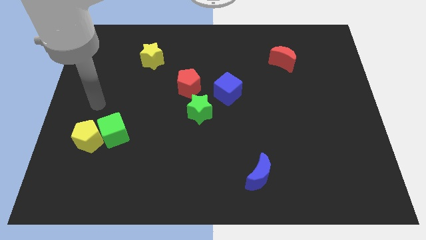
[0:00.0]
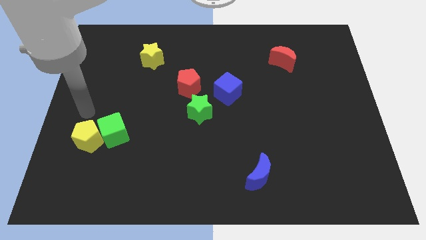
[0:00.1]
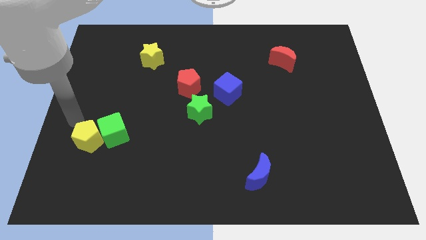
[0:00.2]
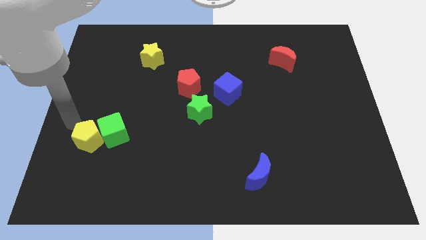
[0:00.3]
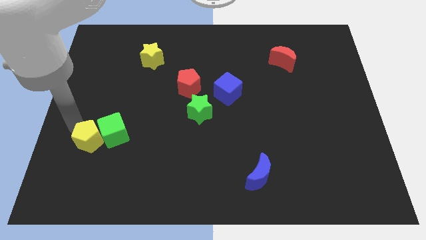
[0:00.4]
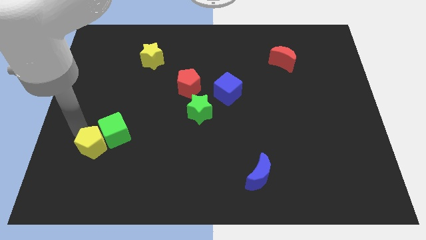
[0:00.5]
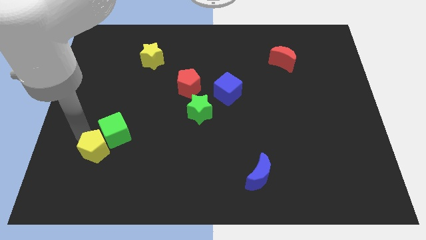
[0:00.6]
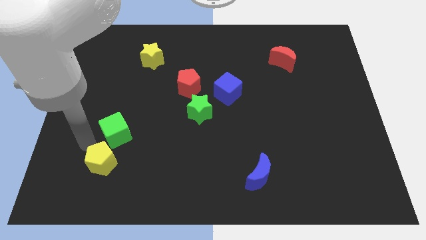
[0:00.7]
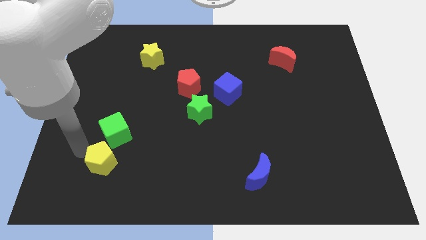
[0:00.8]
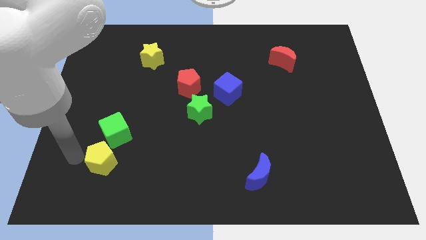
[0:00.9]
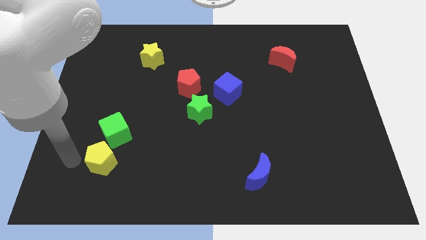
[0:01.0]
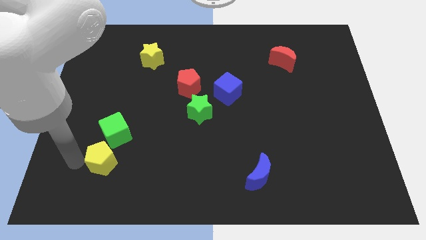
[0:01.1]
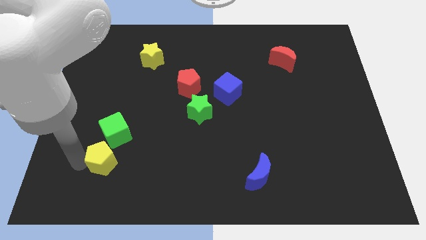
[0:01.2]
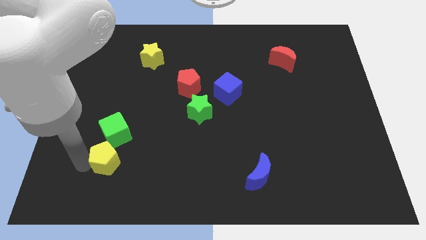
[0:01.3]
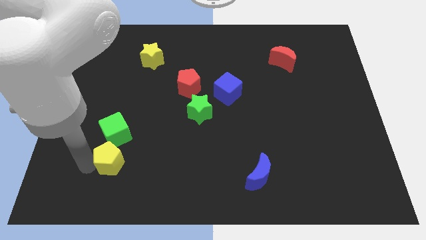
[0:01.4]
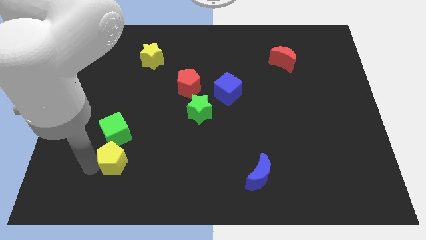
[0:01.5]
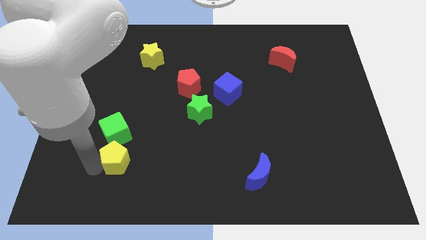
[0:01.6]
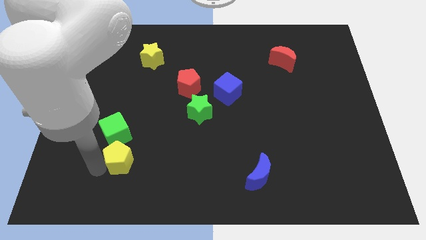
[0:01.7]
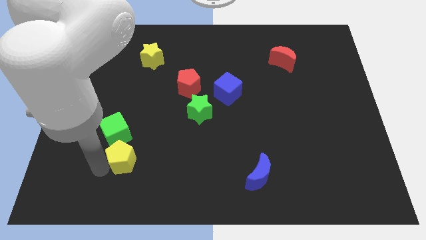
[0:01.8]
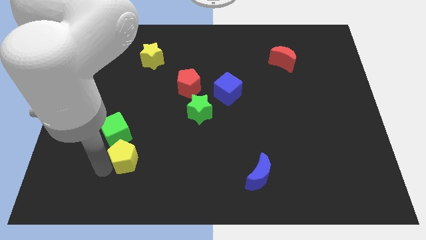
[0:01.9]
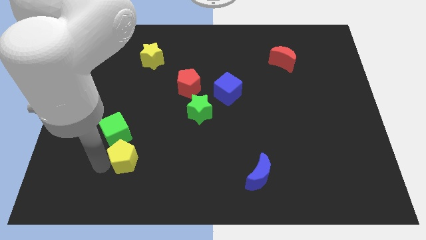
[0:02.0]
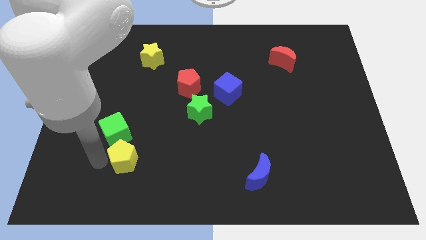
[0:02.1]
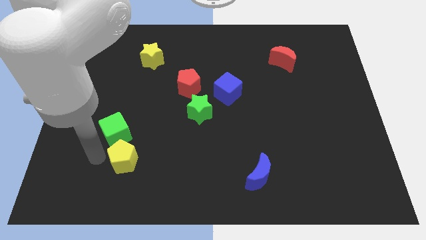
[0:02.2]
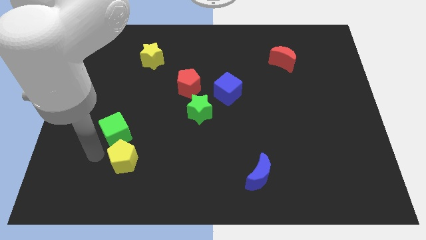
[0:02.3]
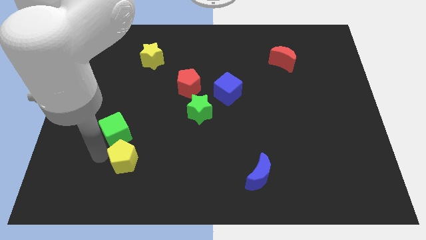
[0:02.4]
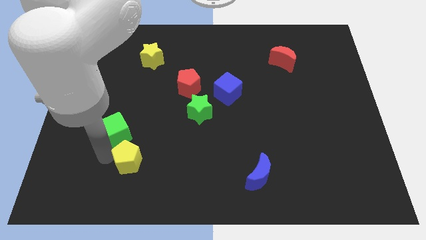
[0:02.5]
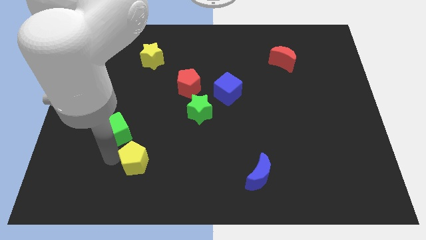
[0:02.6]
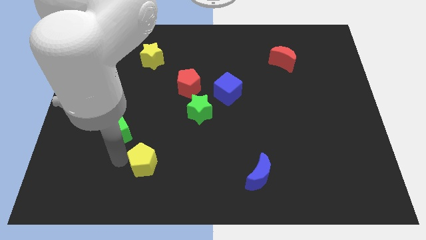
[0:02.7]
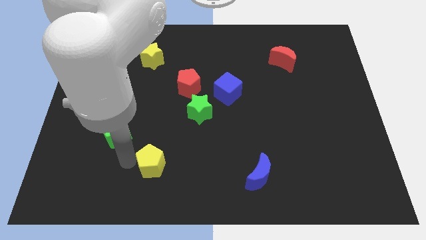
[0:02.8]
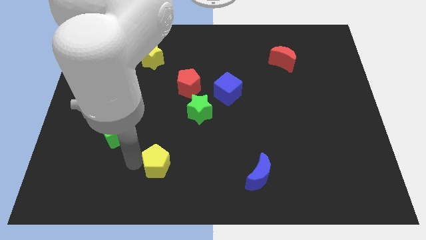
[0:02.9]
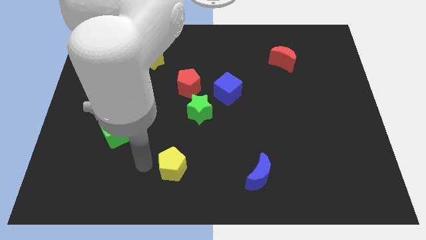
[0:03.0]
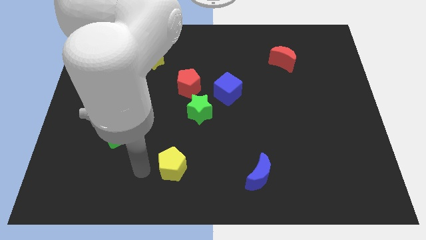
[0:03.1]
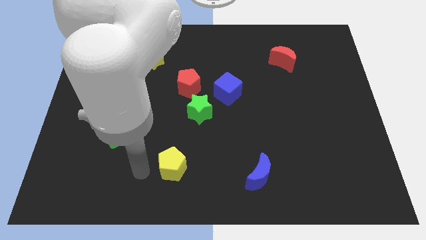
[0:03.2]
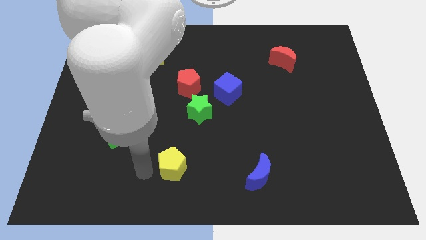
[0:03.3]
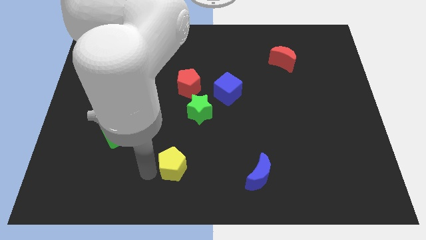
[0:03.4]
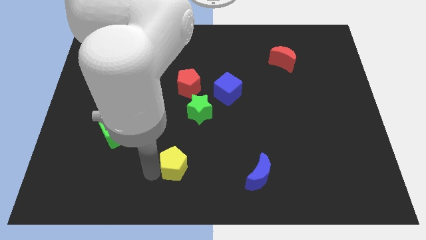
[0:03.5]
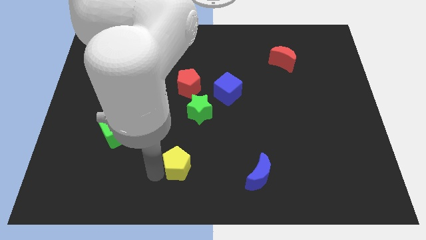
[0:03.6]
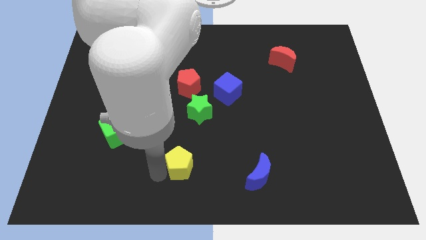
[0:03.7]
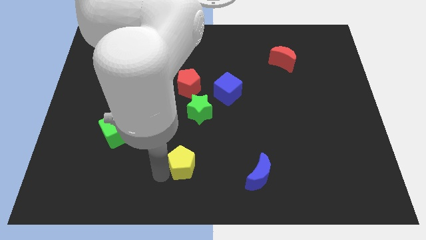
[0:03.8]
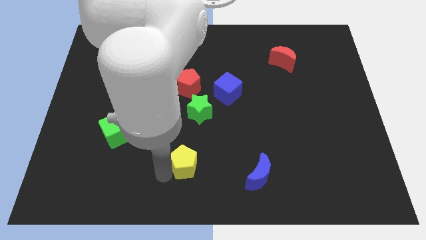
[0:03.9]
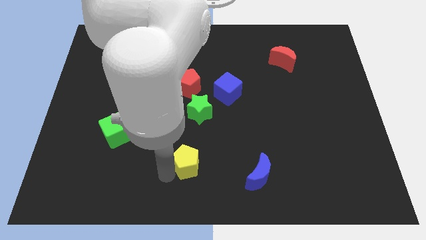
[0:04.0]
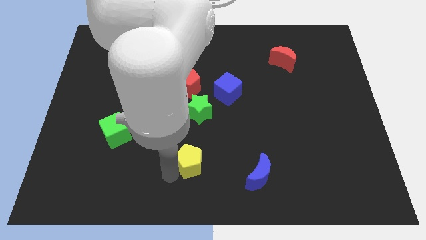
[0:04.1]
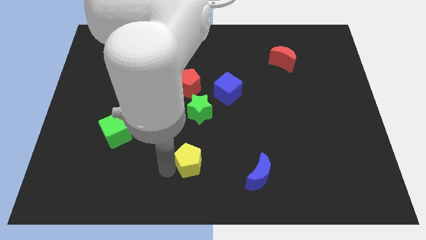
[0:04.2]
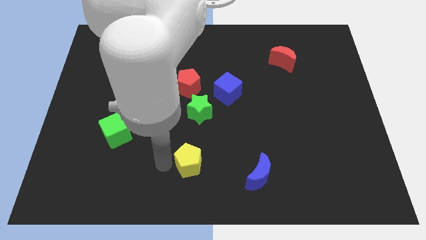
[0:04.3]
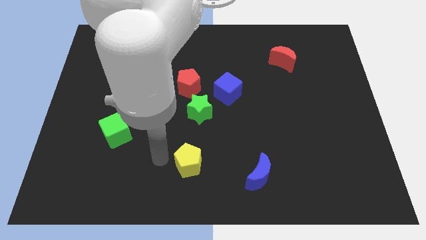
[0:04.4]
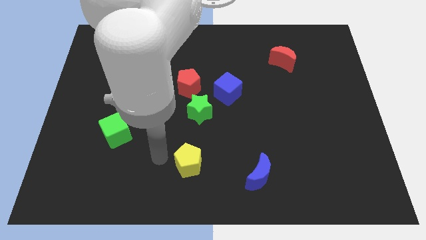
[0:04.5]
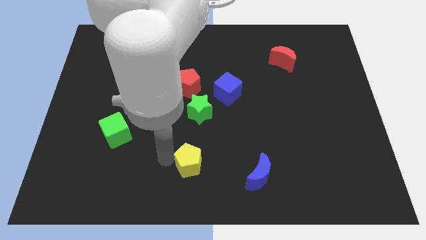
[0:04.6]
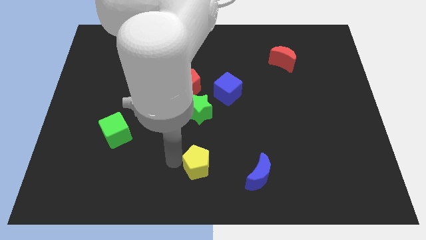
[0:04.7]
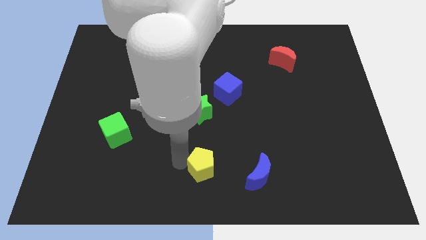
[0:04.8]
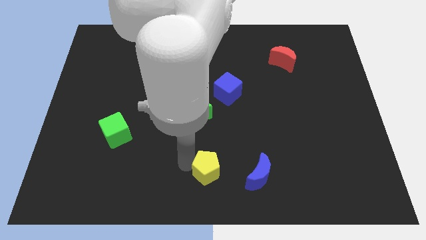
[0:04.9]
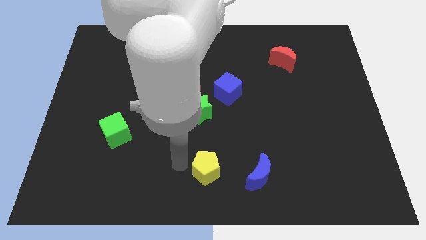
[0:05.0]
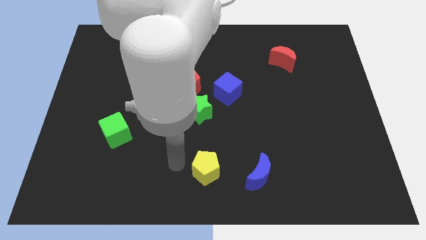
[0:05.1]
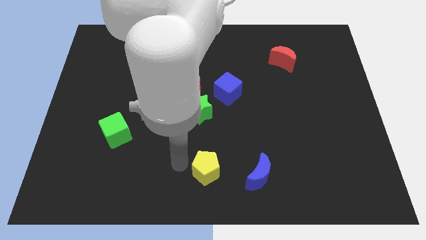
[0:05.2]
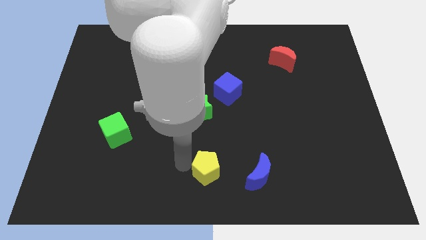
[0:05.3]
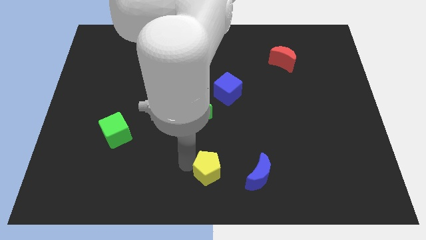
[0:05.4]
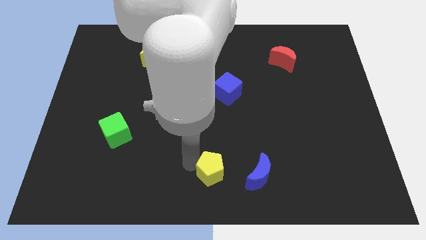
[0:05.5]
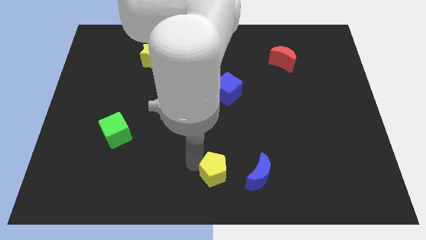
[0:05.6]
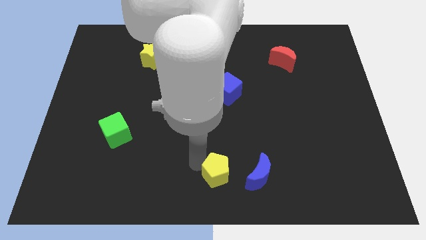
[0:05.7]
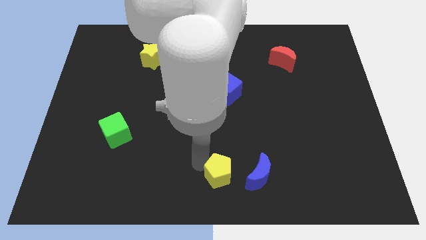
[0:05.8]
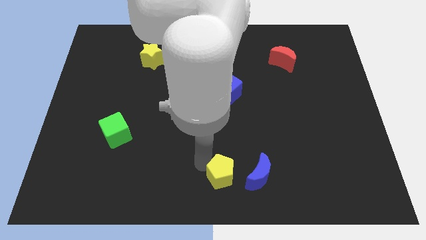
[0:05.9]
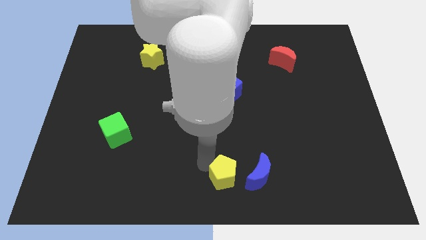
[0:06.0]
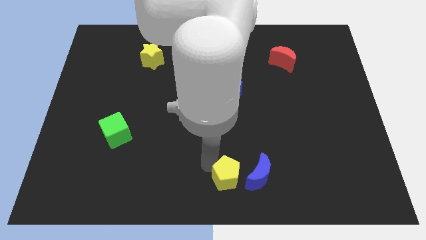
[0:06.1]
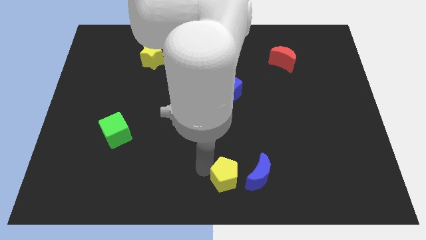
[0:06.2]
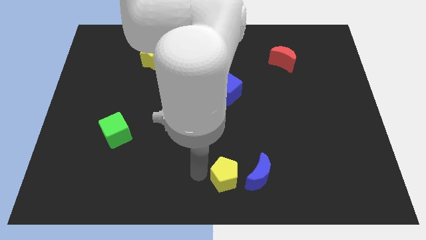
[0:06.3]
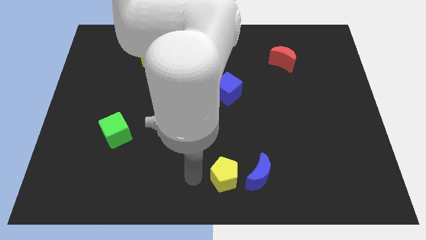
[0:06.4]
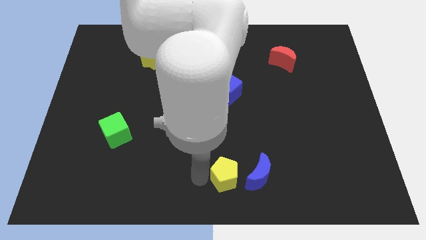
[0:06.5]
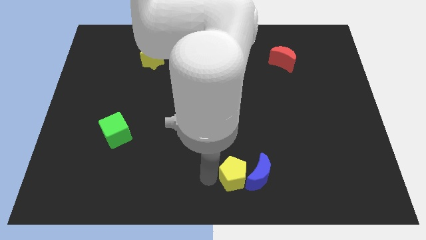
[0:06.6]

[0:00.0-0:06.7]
move the yellow pentagon to the blue moon

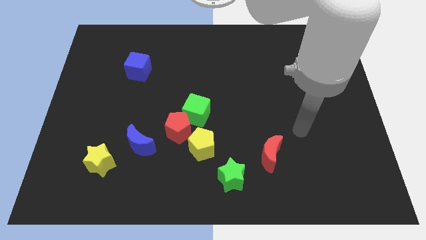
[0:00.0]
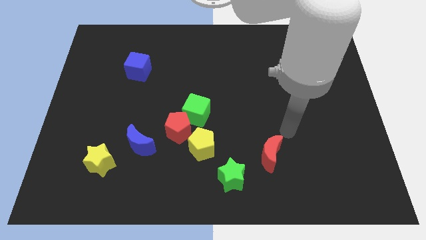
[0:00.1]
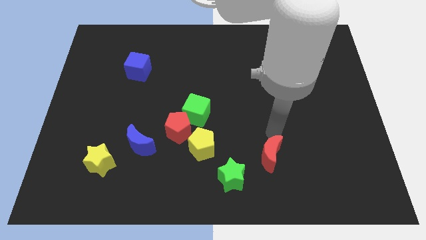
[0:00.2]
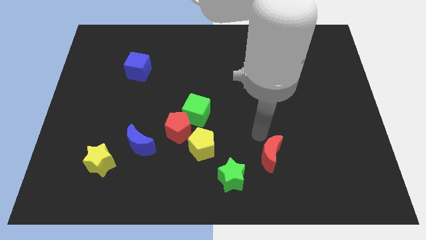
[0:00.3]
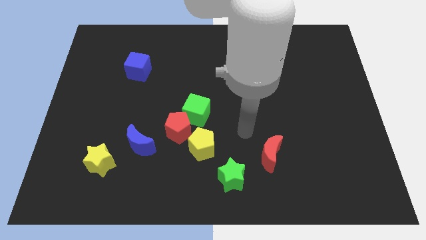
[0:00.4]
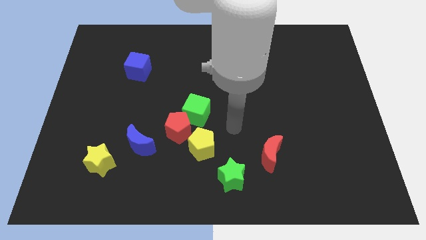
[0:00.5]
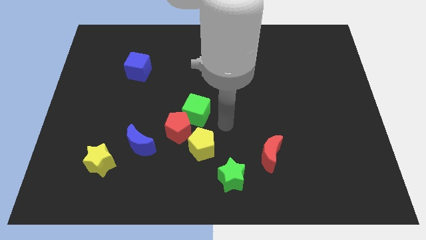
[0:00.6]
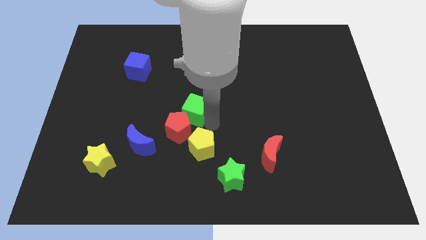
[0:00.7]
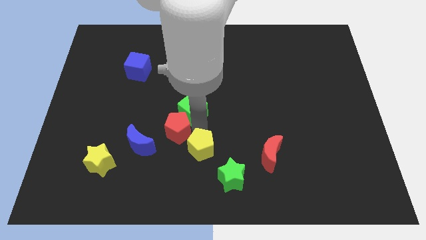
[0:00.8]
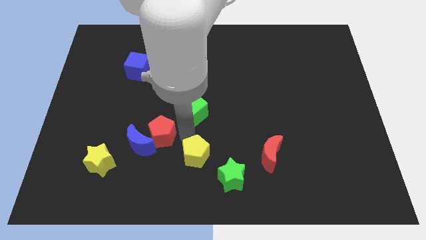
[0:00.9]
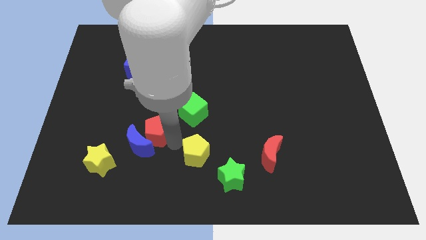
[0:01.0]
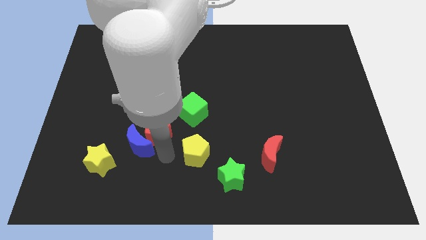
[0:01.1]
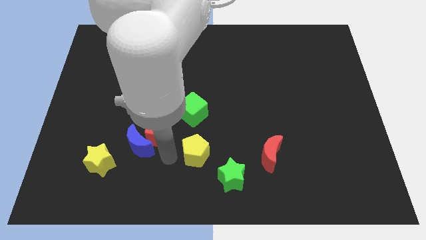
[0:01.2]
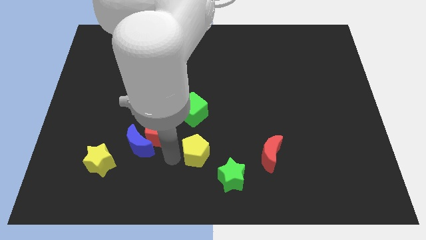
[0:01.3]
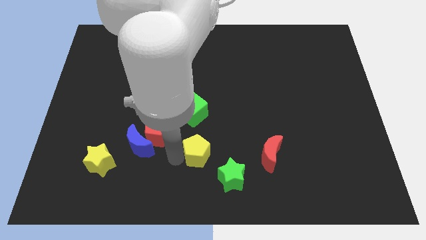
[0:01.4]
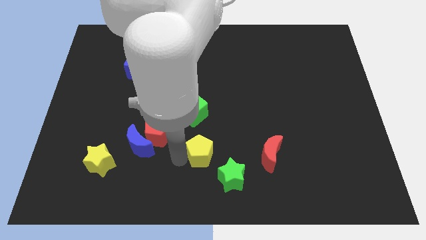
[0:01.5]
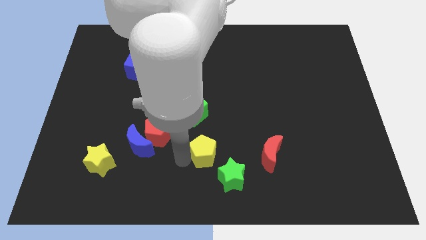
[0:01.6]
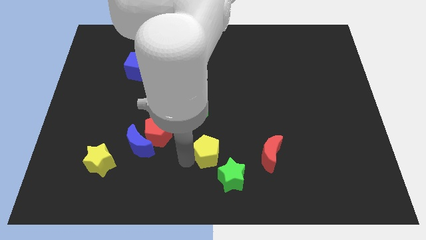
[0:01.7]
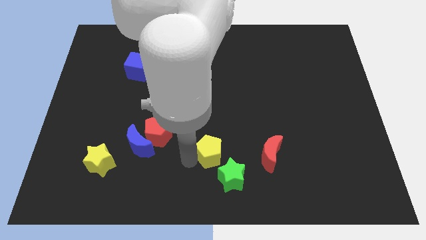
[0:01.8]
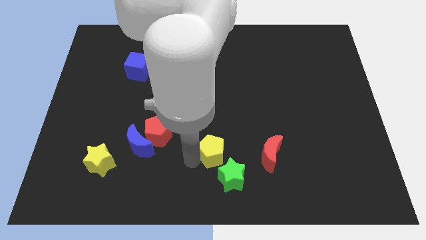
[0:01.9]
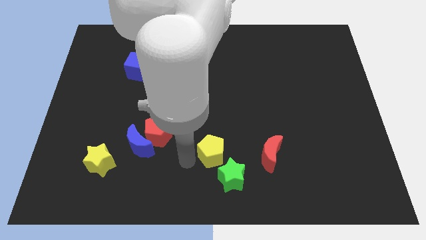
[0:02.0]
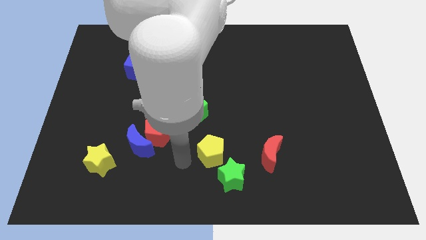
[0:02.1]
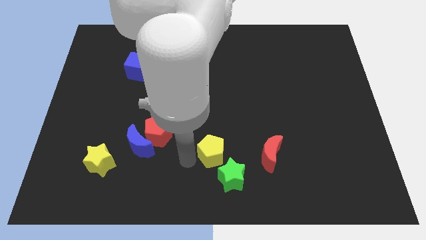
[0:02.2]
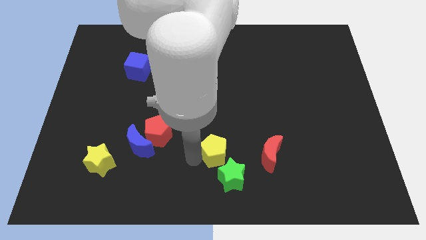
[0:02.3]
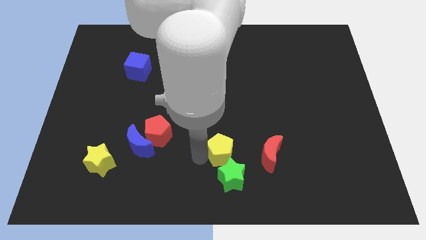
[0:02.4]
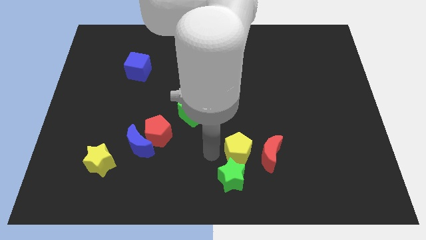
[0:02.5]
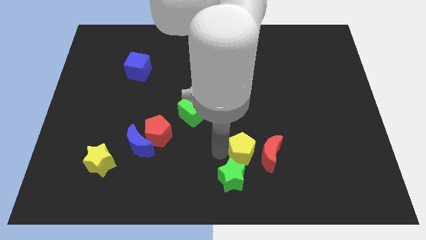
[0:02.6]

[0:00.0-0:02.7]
slide the yellow pentagon towards the red moon
